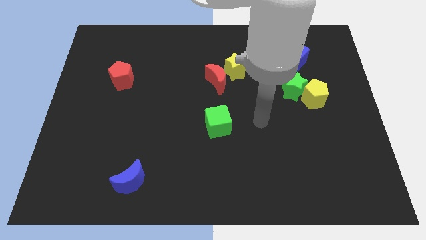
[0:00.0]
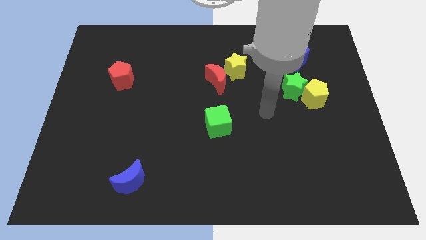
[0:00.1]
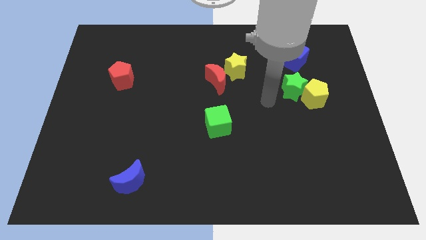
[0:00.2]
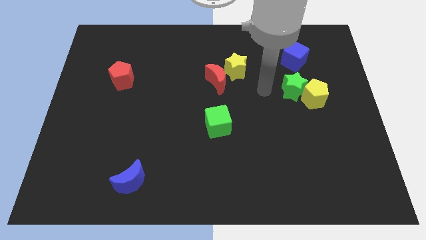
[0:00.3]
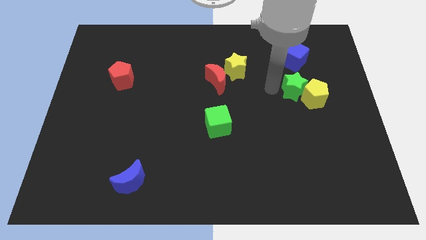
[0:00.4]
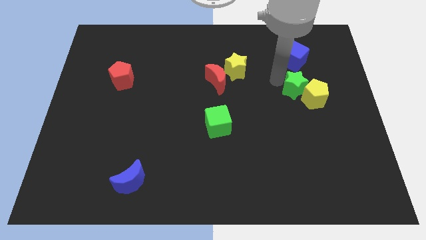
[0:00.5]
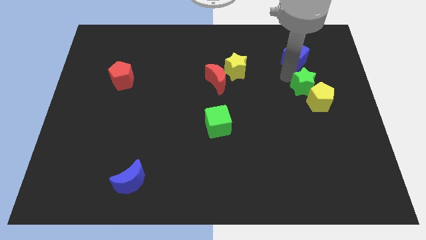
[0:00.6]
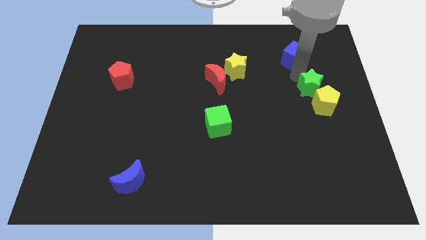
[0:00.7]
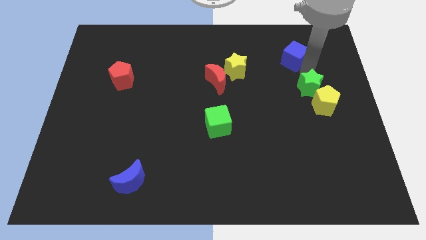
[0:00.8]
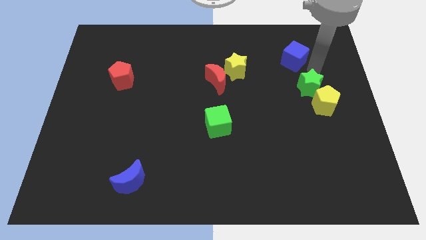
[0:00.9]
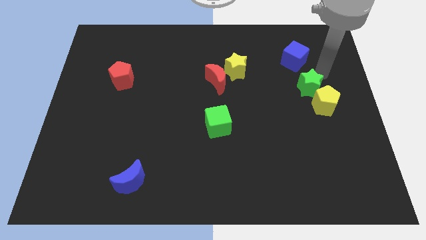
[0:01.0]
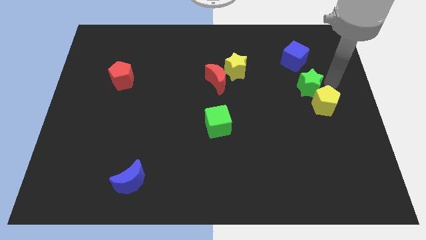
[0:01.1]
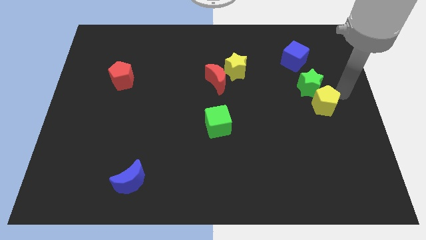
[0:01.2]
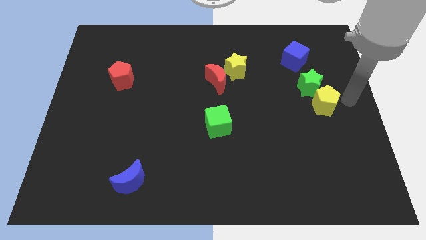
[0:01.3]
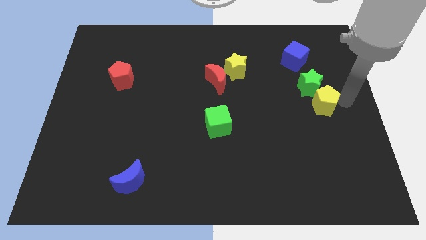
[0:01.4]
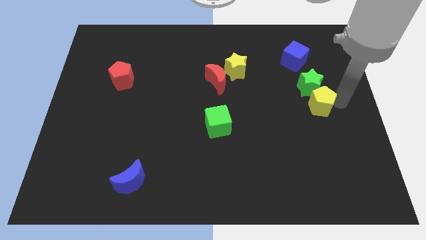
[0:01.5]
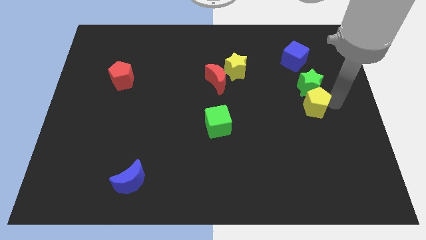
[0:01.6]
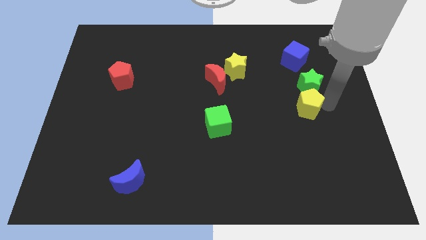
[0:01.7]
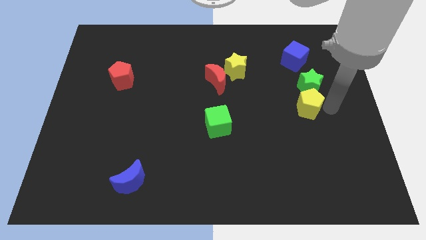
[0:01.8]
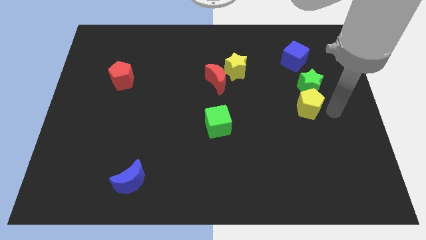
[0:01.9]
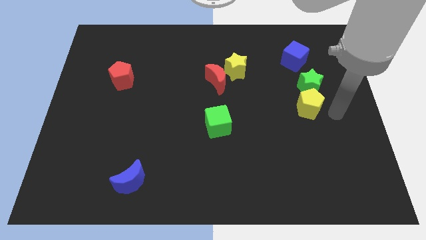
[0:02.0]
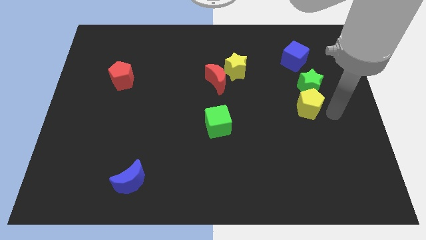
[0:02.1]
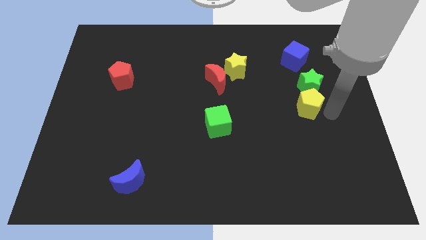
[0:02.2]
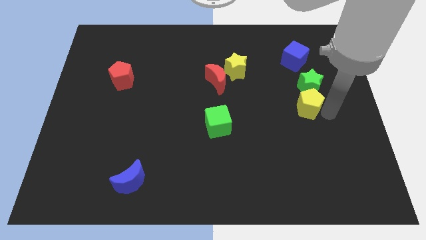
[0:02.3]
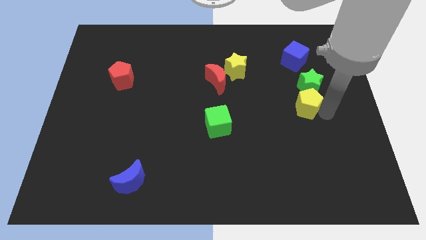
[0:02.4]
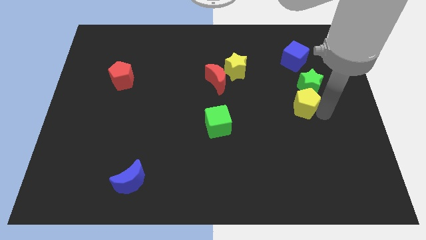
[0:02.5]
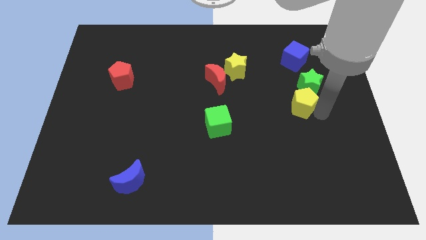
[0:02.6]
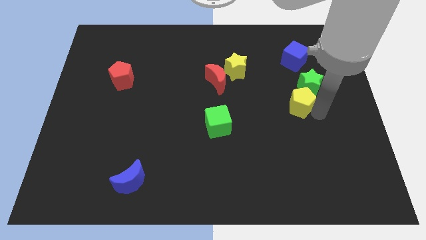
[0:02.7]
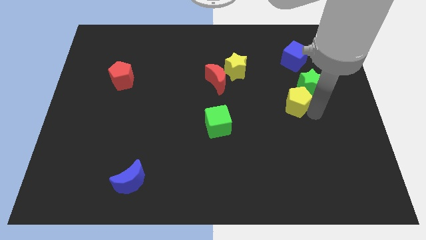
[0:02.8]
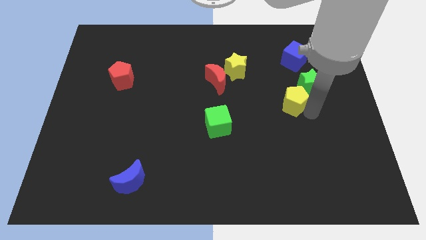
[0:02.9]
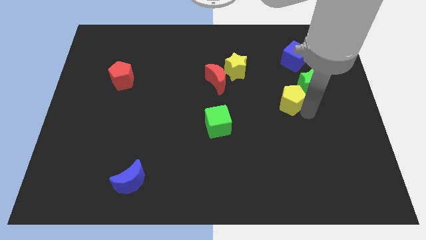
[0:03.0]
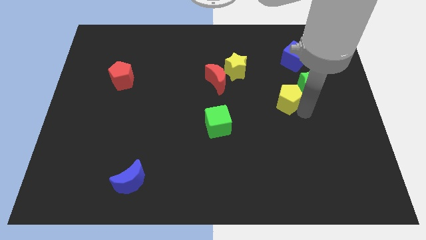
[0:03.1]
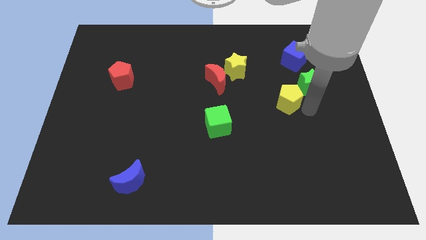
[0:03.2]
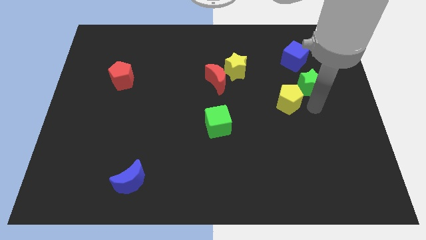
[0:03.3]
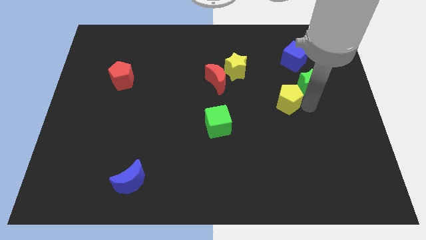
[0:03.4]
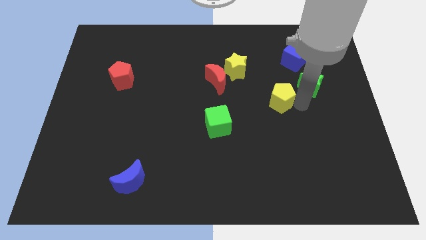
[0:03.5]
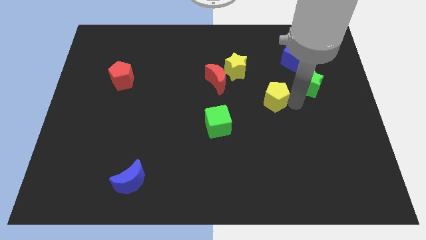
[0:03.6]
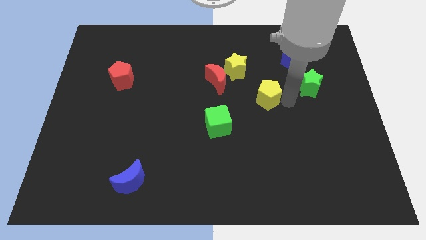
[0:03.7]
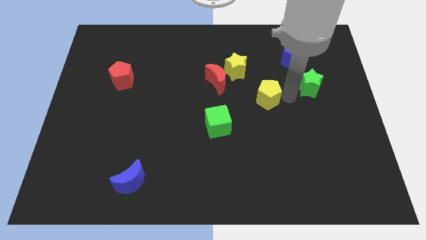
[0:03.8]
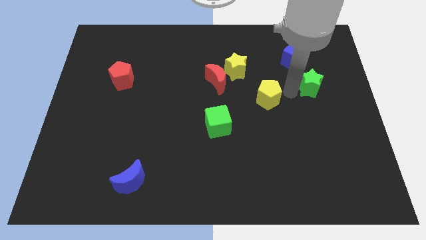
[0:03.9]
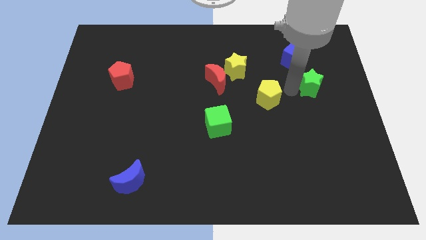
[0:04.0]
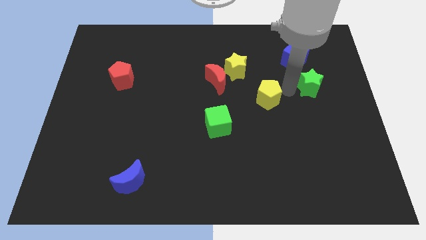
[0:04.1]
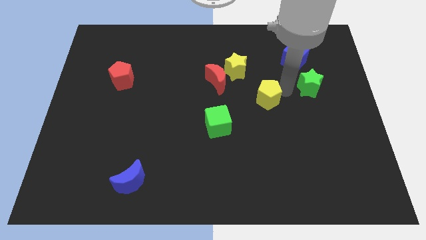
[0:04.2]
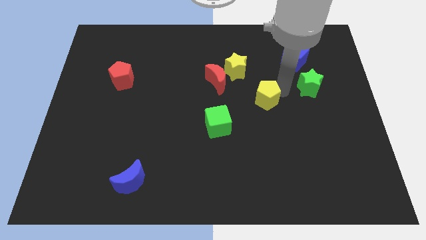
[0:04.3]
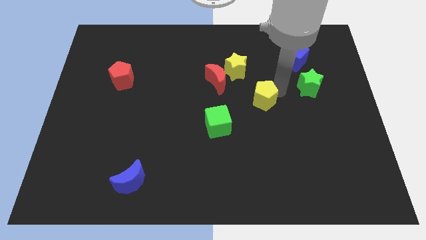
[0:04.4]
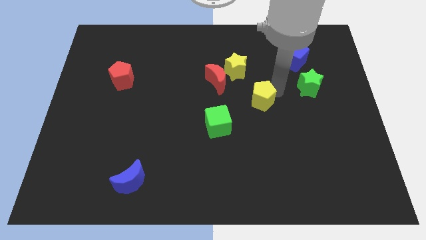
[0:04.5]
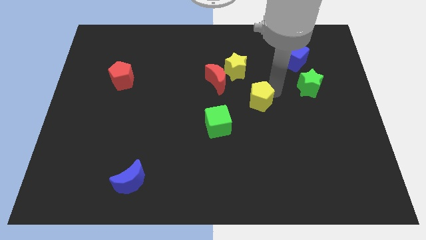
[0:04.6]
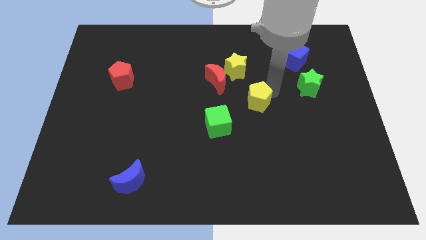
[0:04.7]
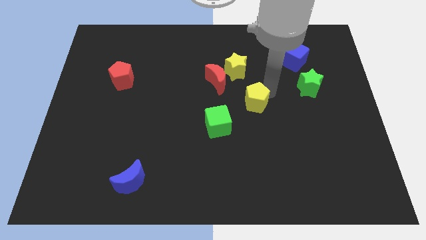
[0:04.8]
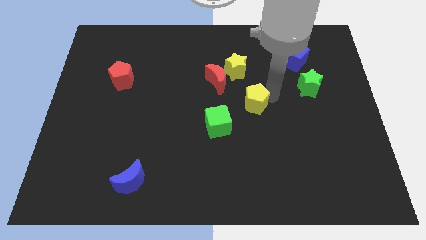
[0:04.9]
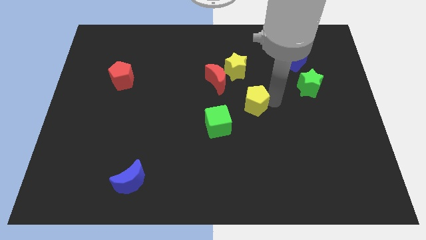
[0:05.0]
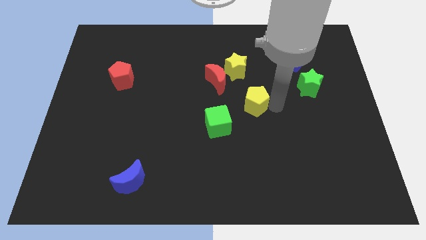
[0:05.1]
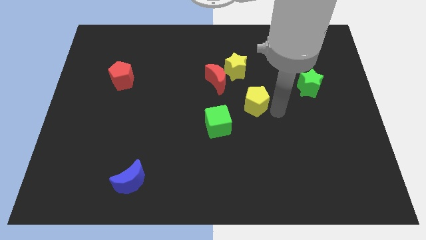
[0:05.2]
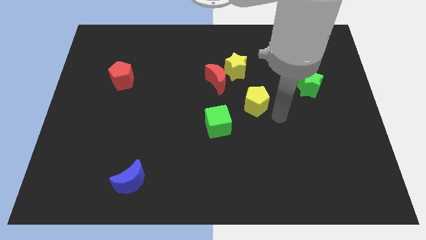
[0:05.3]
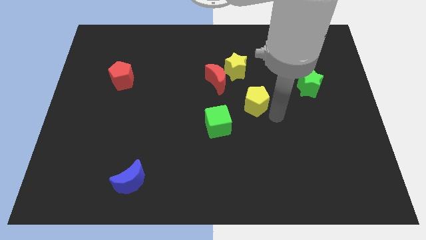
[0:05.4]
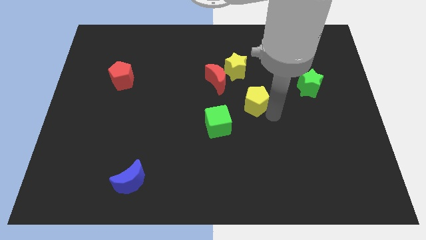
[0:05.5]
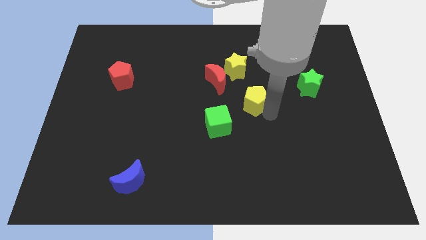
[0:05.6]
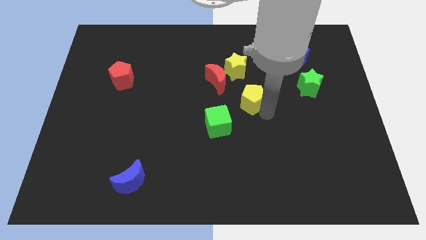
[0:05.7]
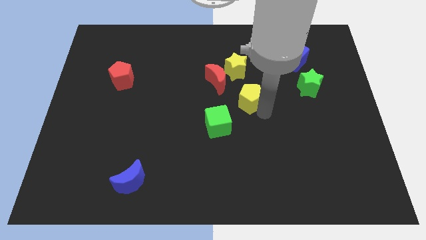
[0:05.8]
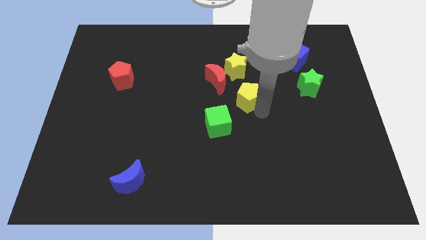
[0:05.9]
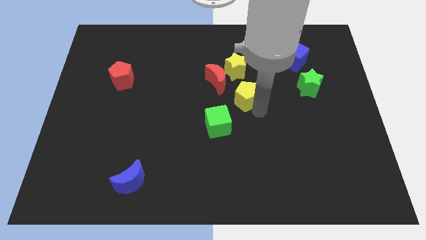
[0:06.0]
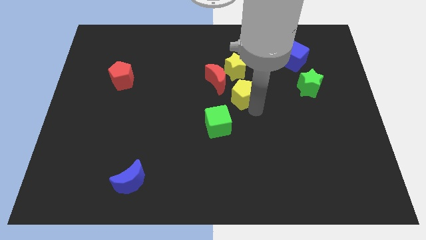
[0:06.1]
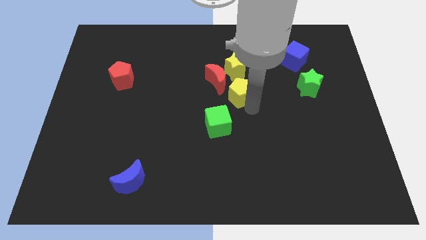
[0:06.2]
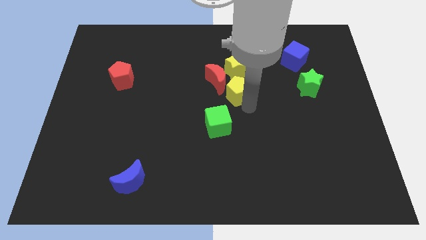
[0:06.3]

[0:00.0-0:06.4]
push the yellow pentagon to the red moon
